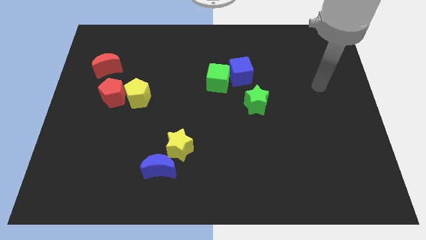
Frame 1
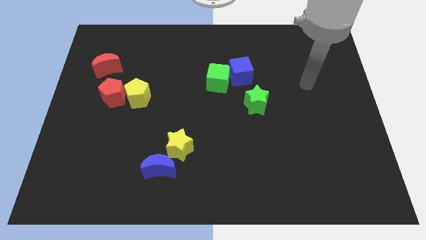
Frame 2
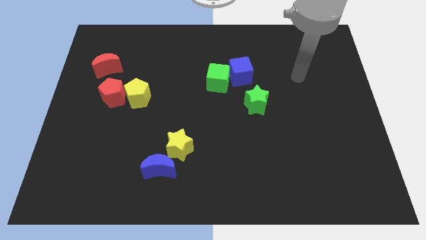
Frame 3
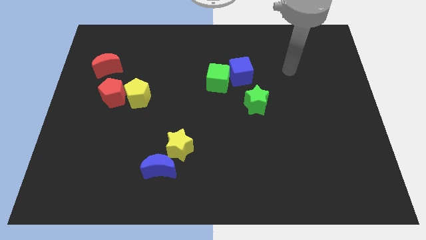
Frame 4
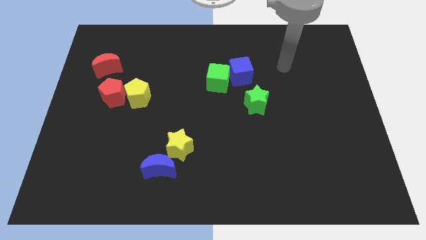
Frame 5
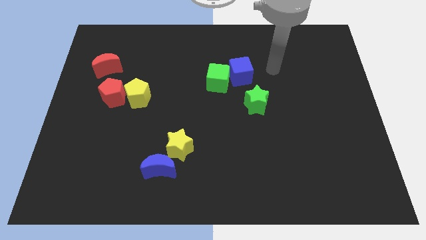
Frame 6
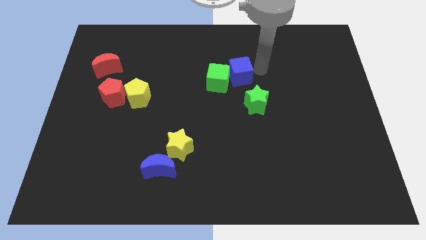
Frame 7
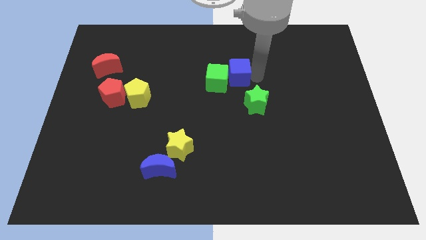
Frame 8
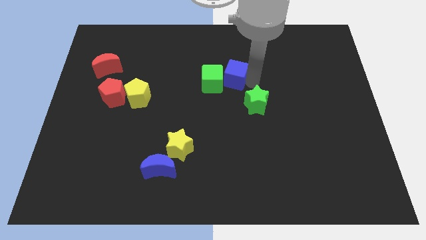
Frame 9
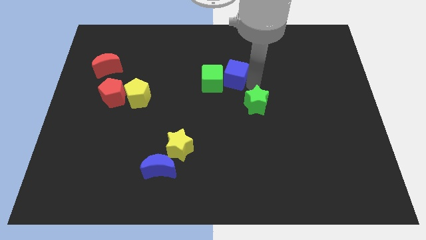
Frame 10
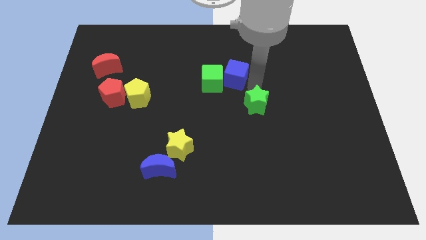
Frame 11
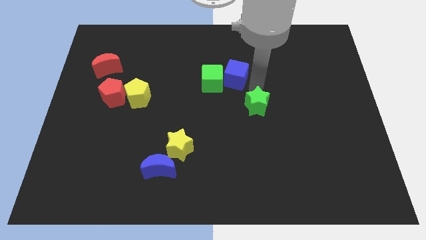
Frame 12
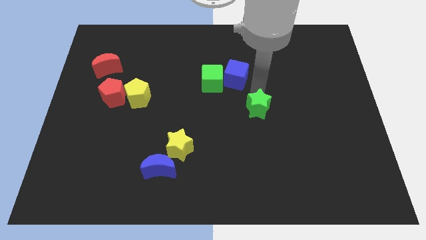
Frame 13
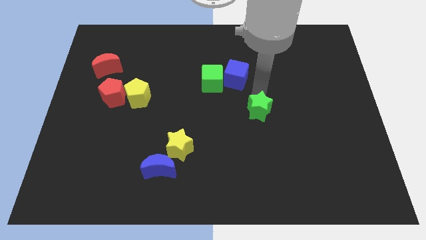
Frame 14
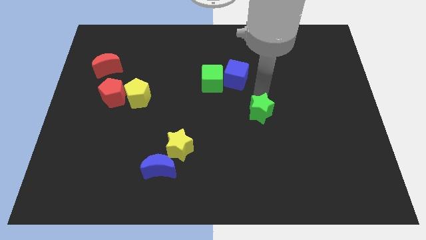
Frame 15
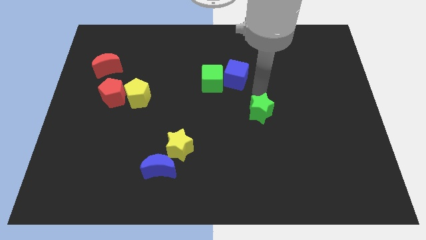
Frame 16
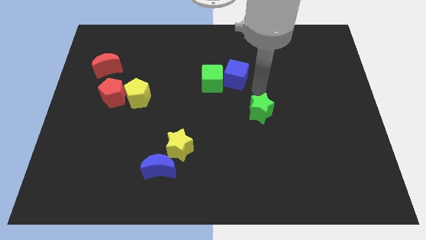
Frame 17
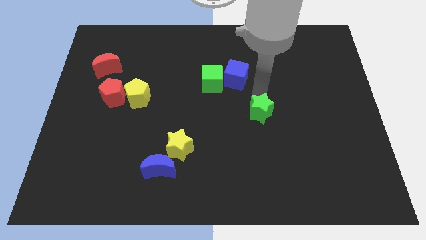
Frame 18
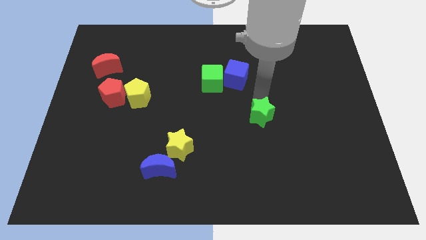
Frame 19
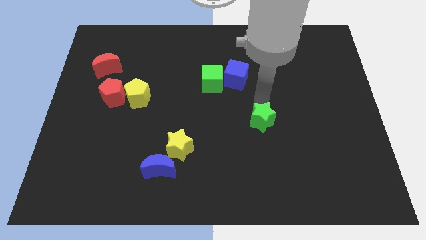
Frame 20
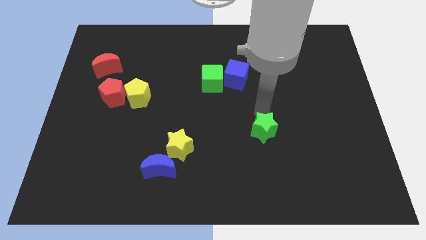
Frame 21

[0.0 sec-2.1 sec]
push the green star a little bit down

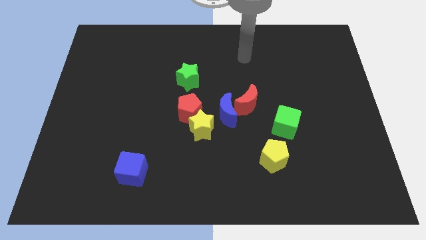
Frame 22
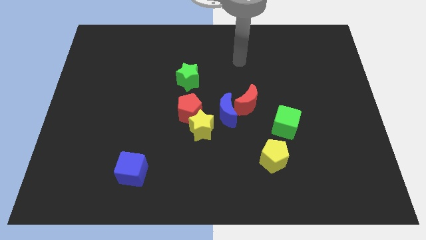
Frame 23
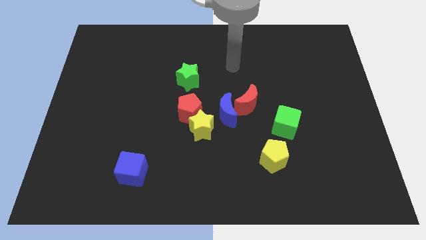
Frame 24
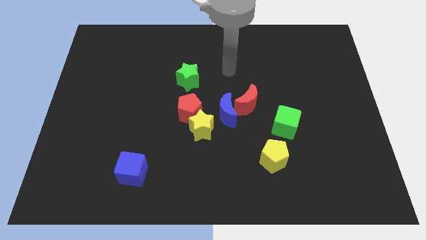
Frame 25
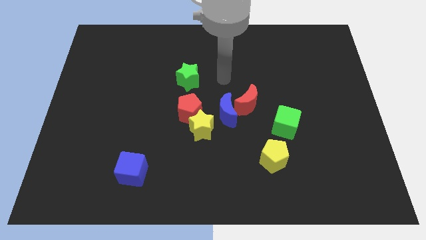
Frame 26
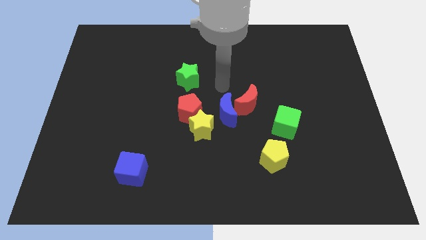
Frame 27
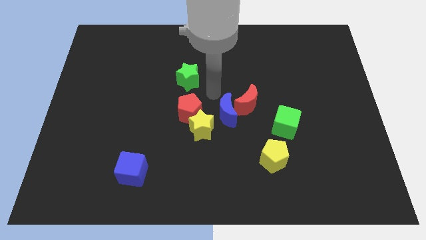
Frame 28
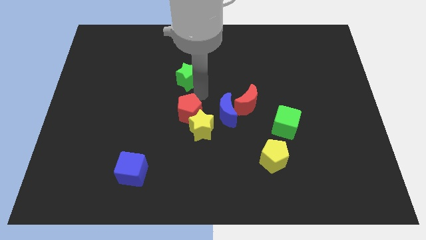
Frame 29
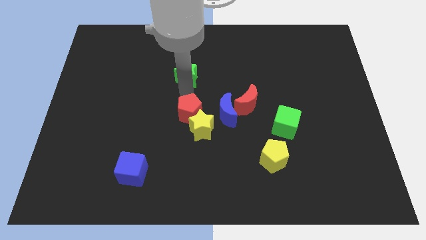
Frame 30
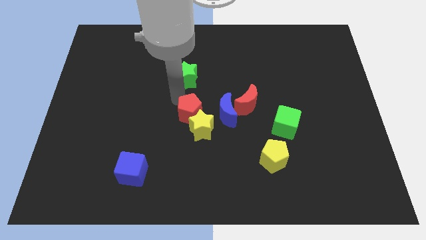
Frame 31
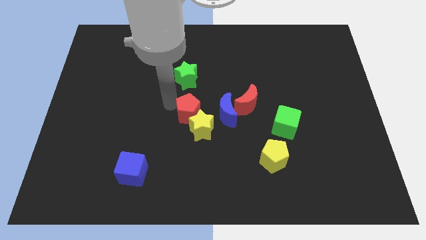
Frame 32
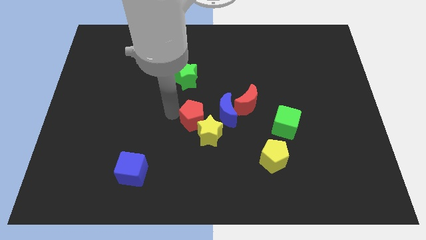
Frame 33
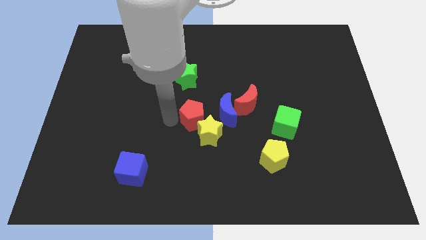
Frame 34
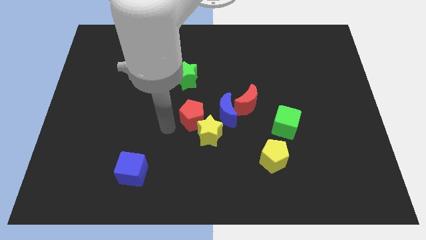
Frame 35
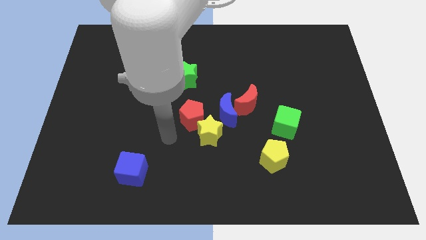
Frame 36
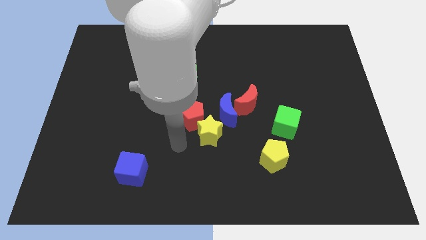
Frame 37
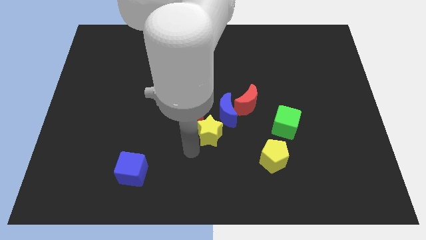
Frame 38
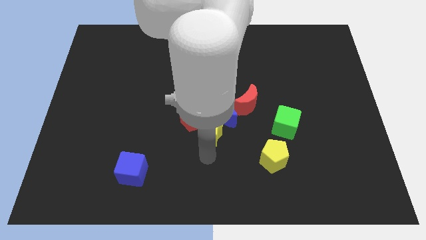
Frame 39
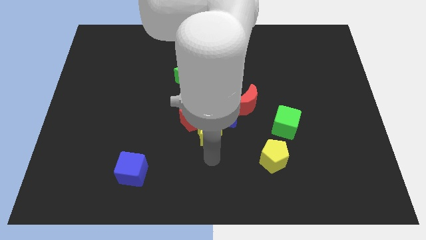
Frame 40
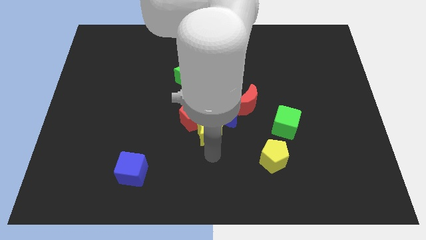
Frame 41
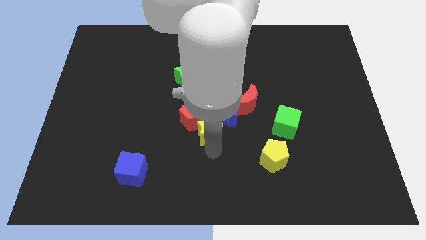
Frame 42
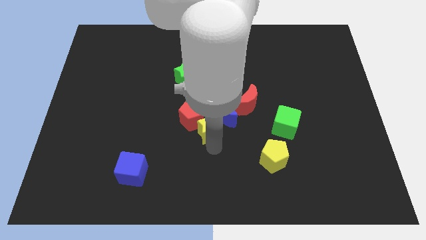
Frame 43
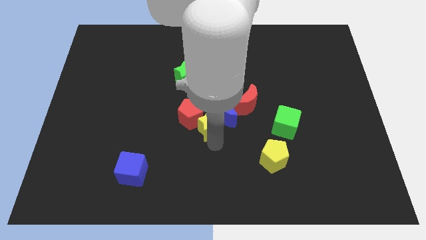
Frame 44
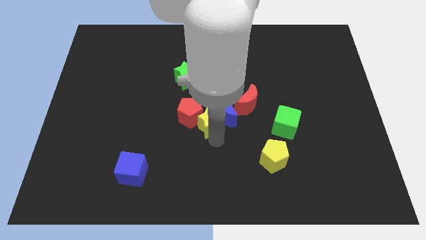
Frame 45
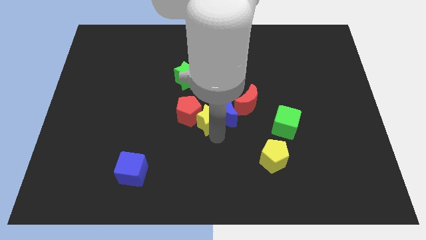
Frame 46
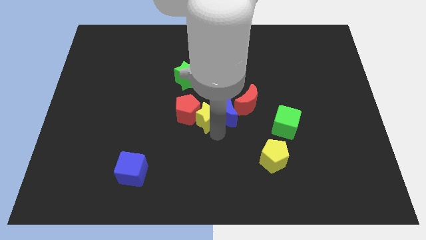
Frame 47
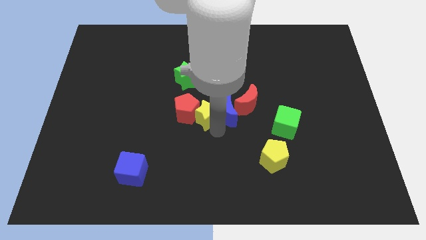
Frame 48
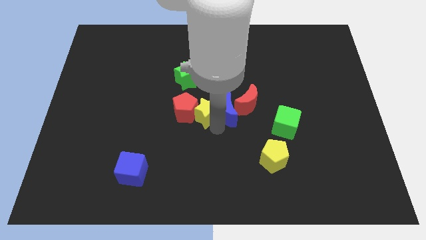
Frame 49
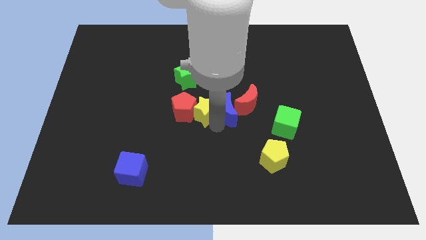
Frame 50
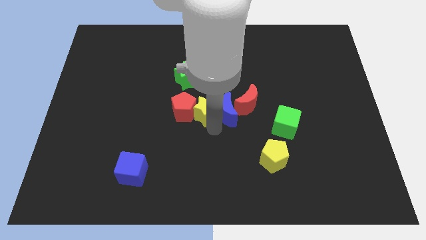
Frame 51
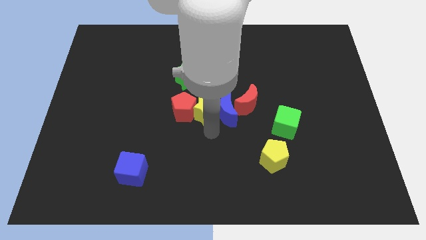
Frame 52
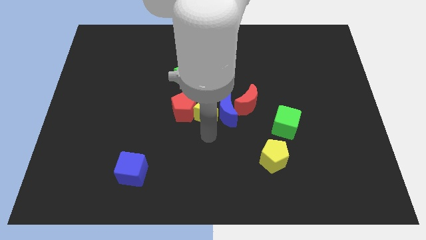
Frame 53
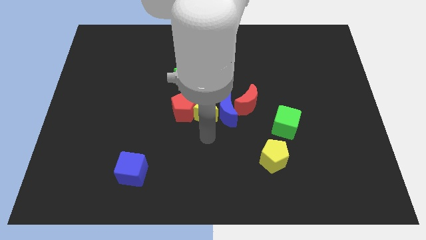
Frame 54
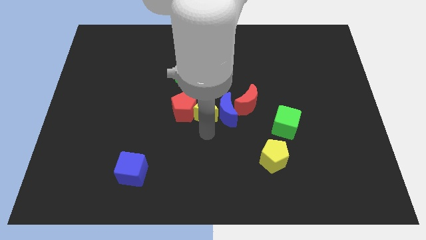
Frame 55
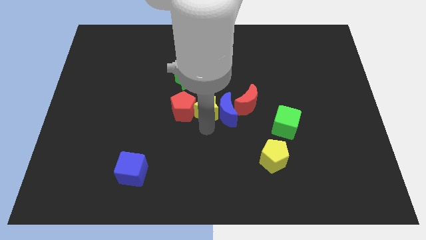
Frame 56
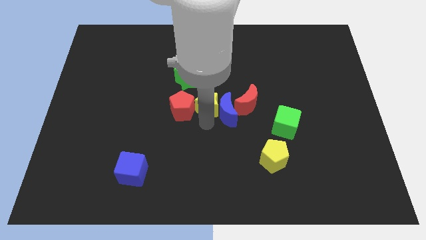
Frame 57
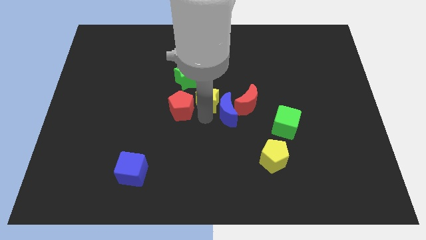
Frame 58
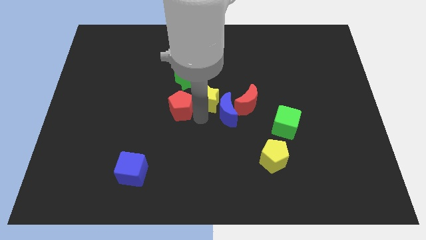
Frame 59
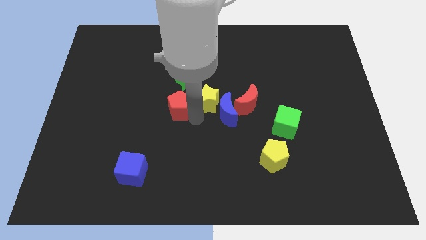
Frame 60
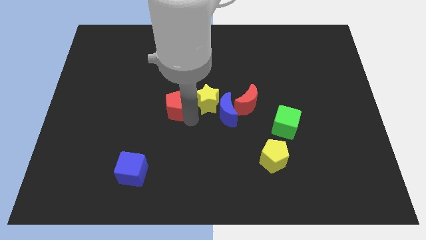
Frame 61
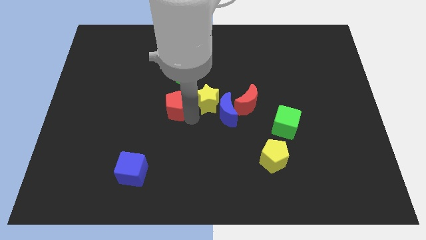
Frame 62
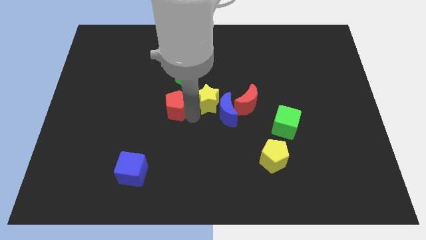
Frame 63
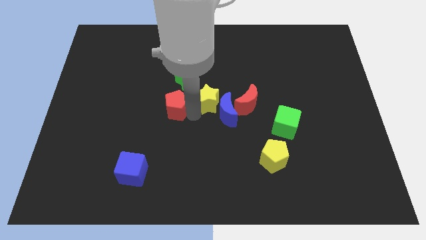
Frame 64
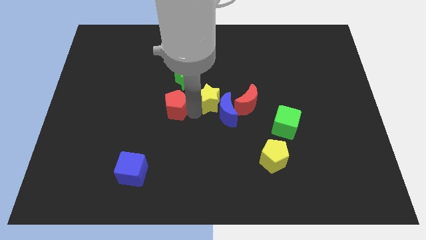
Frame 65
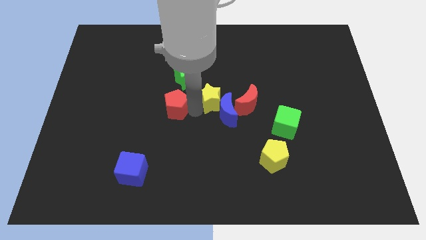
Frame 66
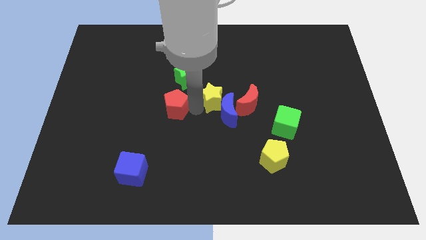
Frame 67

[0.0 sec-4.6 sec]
slide the yellow star upwards and right a little

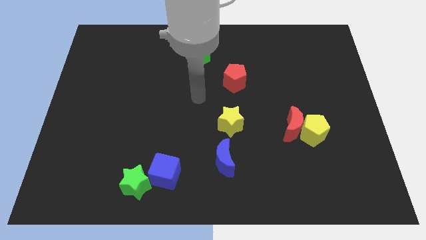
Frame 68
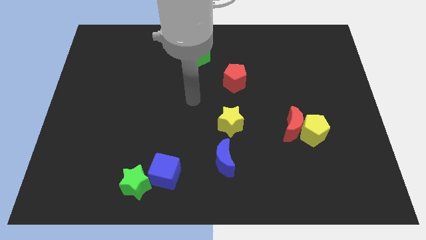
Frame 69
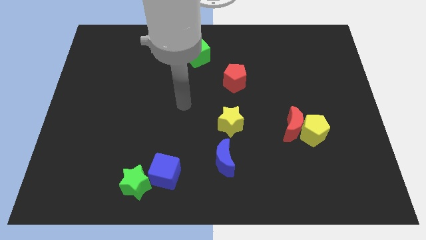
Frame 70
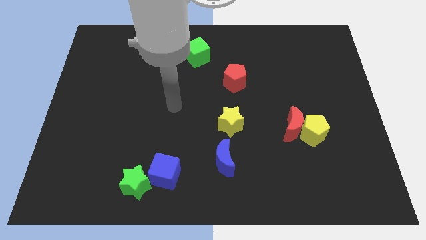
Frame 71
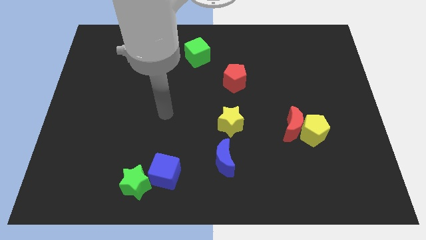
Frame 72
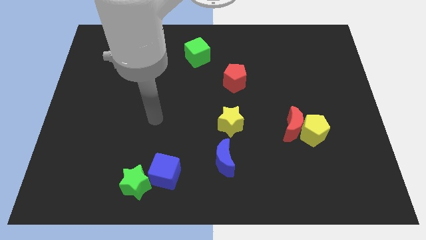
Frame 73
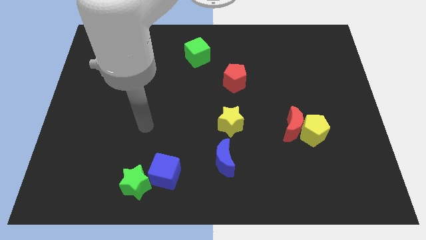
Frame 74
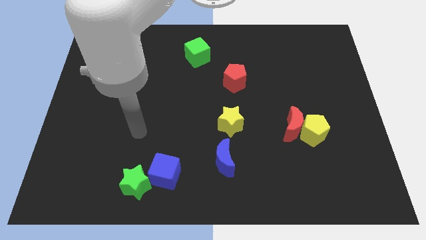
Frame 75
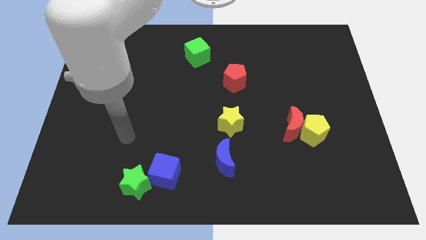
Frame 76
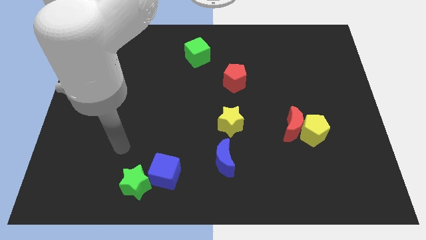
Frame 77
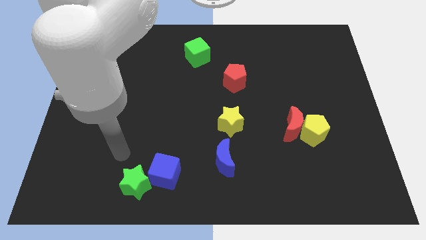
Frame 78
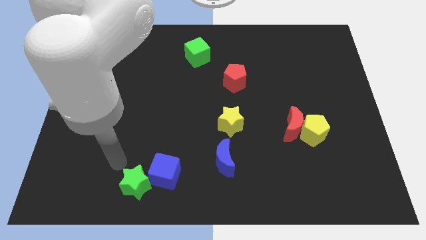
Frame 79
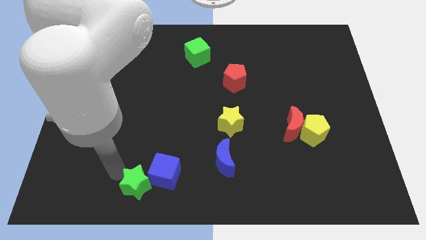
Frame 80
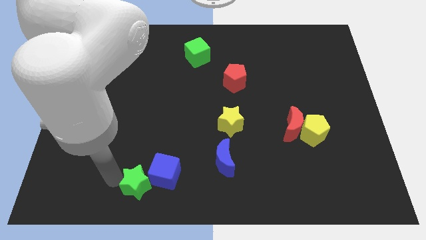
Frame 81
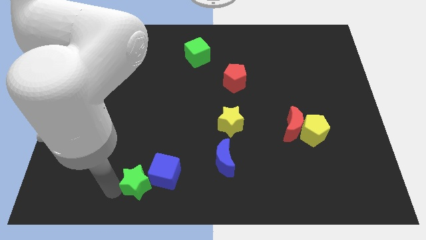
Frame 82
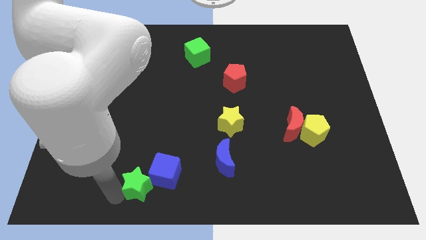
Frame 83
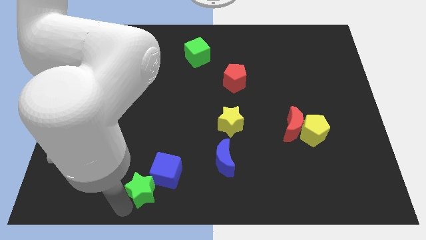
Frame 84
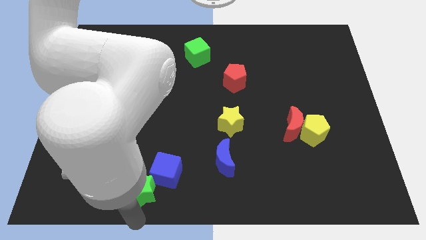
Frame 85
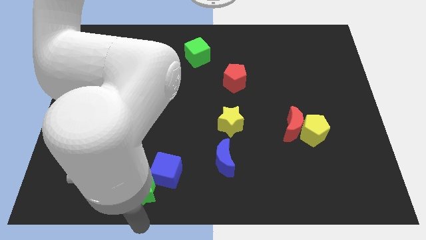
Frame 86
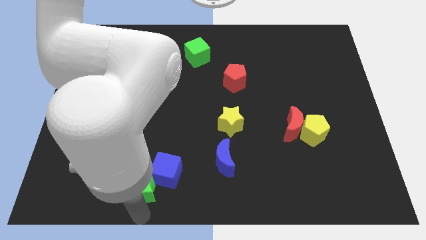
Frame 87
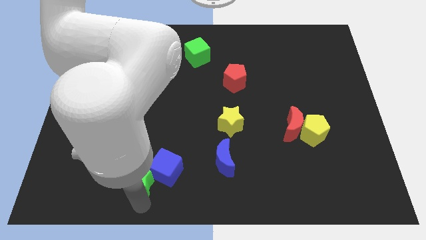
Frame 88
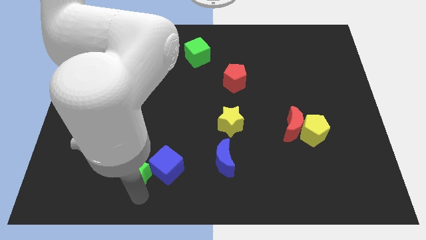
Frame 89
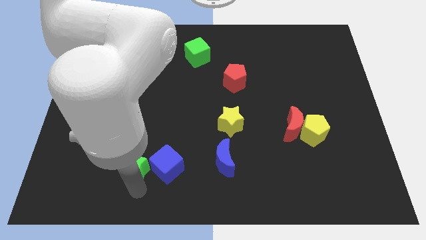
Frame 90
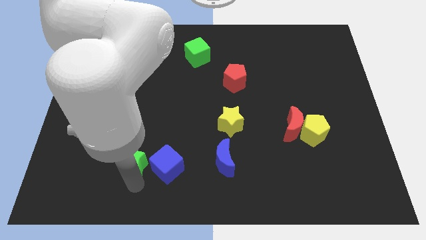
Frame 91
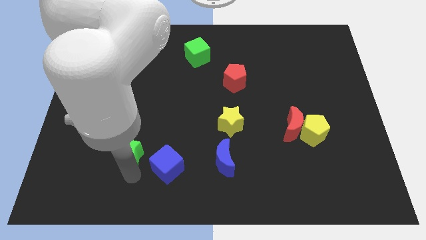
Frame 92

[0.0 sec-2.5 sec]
move the green star a bit up
